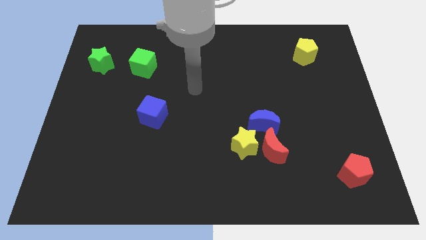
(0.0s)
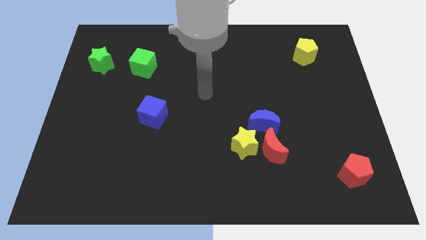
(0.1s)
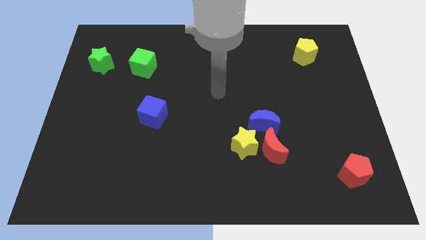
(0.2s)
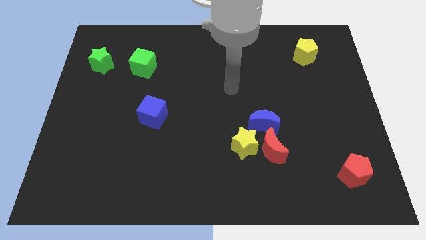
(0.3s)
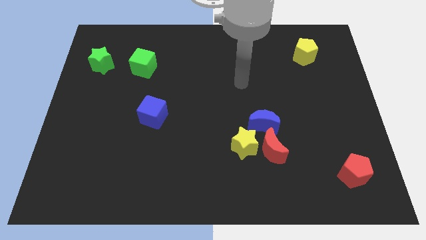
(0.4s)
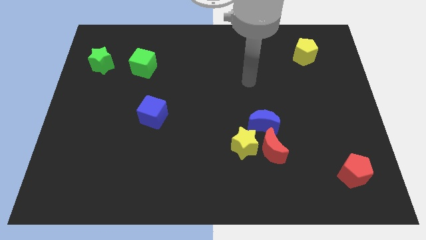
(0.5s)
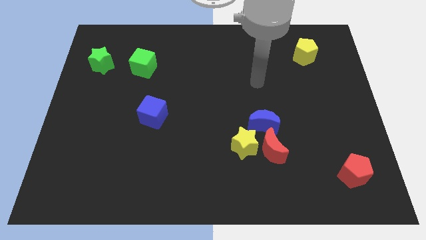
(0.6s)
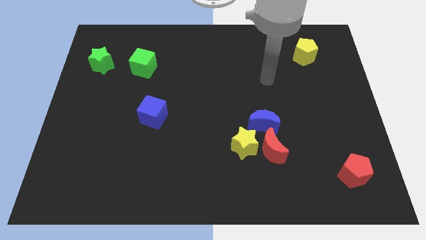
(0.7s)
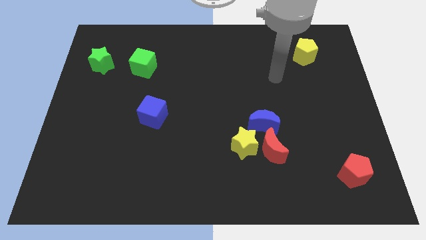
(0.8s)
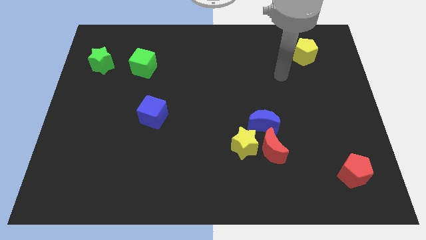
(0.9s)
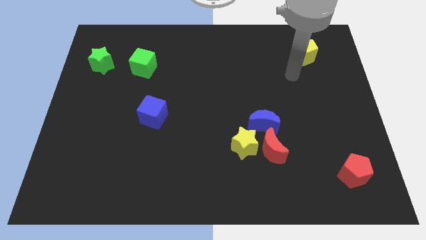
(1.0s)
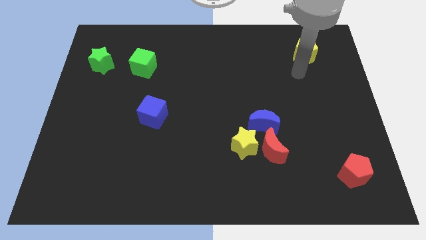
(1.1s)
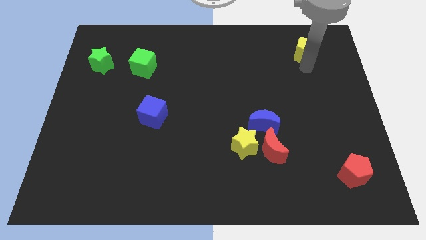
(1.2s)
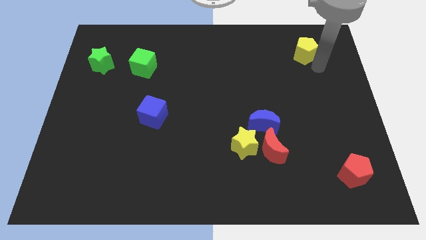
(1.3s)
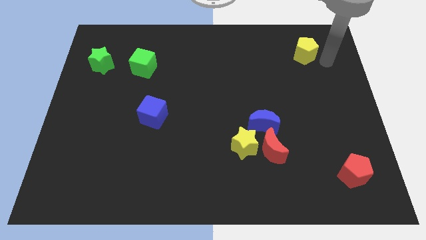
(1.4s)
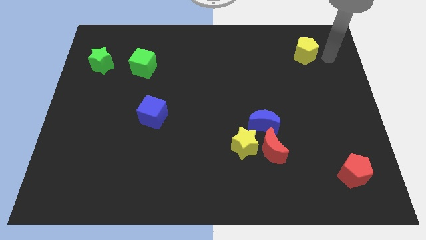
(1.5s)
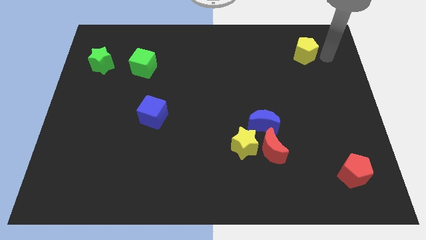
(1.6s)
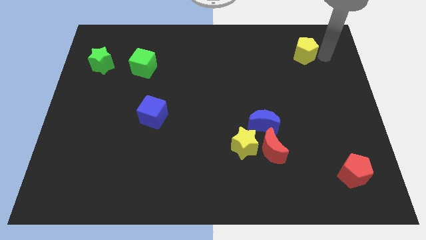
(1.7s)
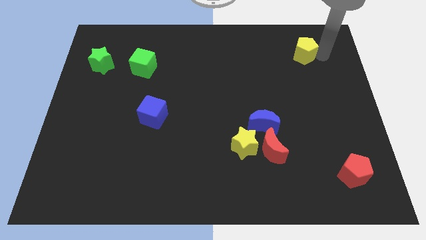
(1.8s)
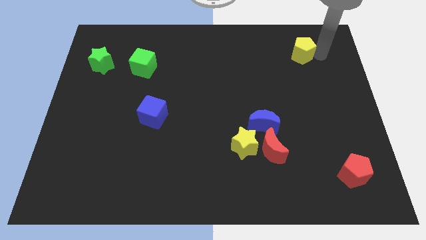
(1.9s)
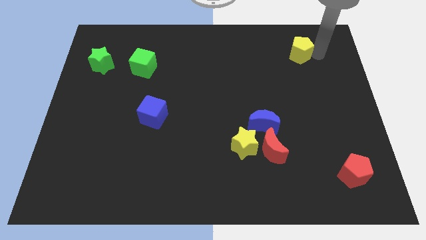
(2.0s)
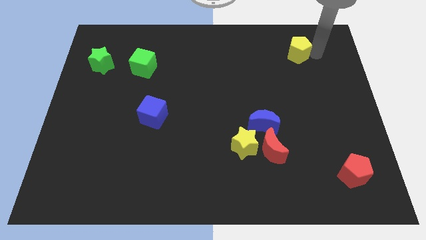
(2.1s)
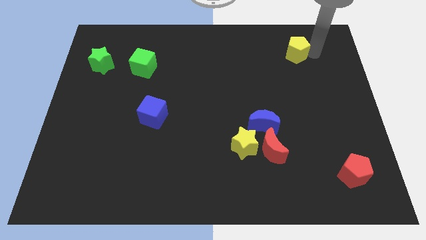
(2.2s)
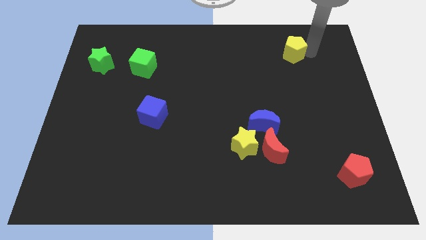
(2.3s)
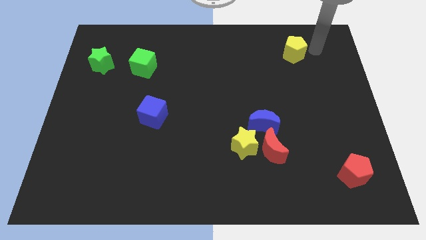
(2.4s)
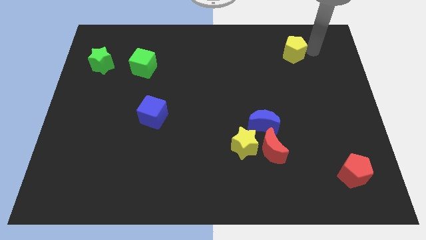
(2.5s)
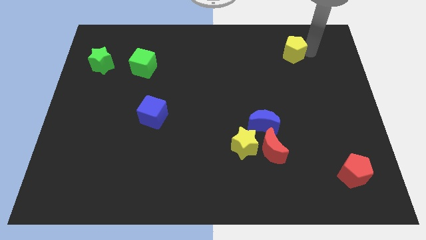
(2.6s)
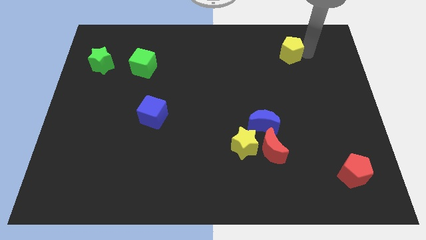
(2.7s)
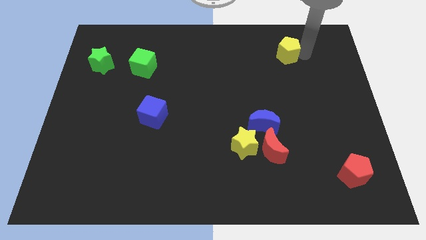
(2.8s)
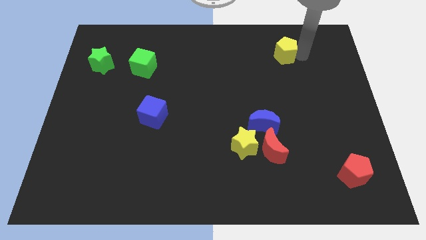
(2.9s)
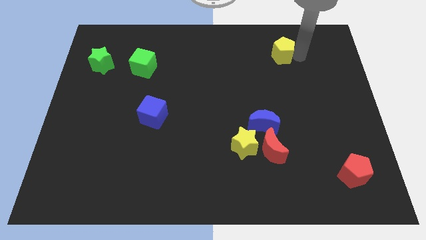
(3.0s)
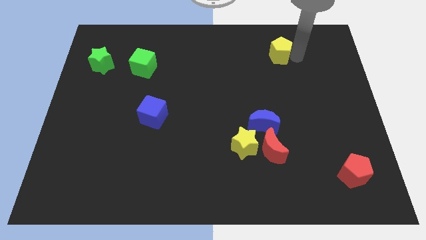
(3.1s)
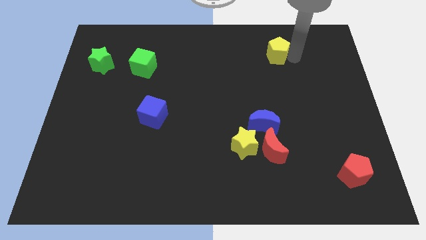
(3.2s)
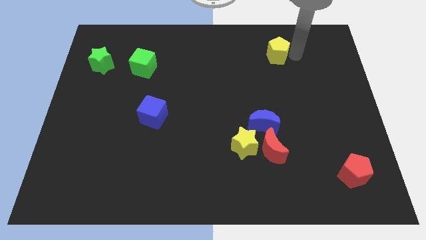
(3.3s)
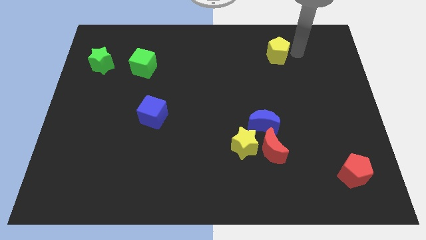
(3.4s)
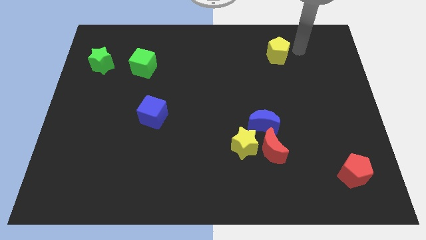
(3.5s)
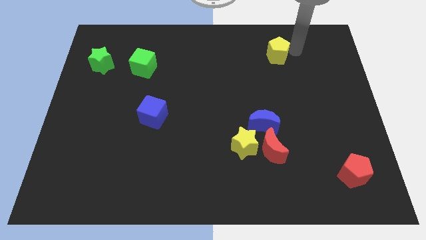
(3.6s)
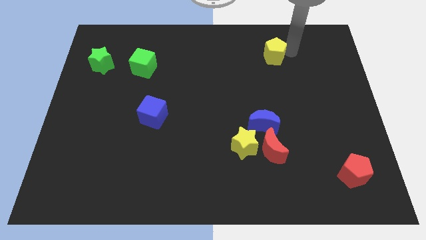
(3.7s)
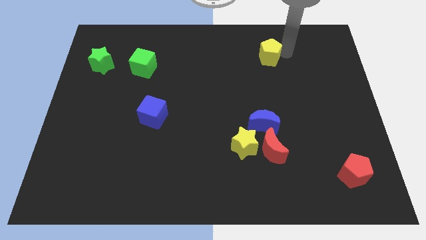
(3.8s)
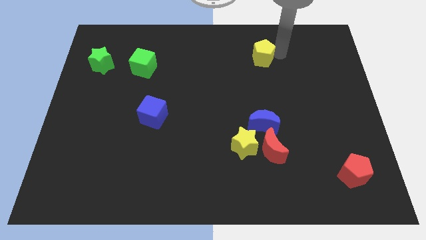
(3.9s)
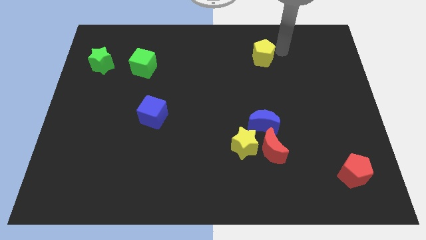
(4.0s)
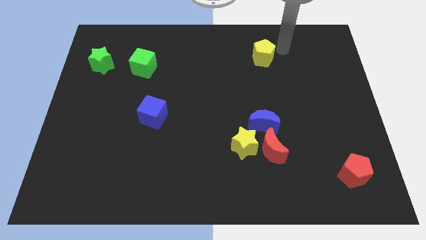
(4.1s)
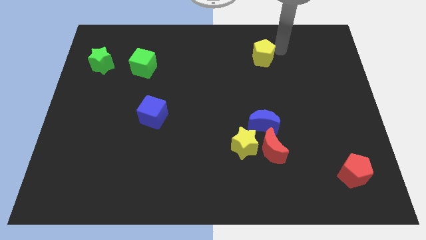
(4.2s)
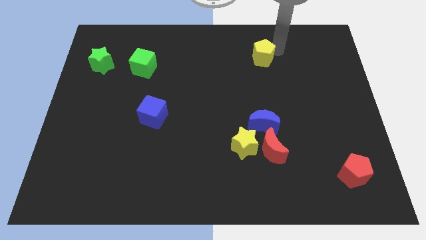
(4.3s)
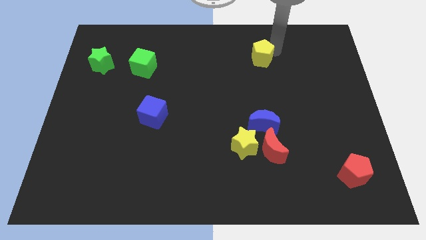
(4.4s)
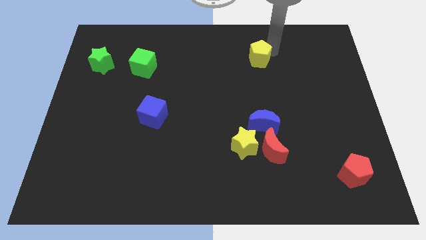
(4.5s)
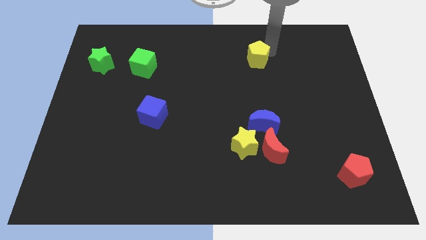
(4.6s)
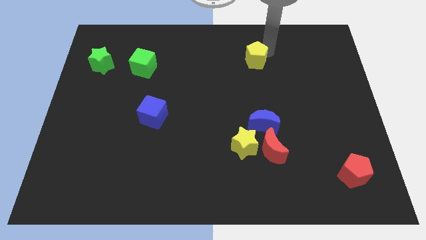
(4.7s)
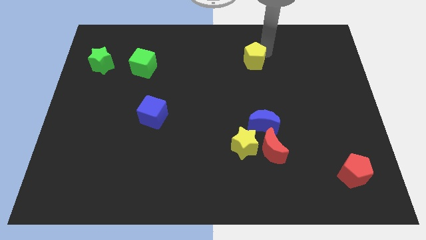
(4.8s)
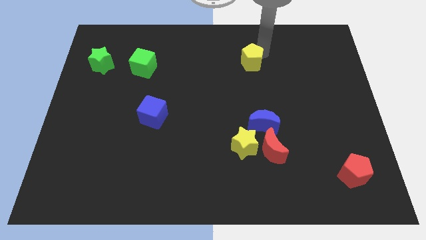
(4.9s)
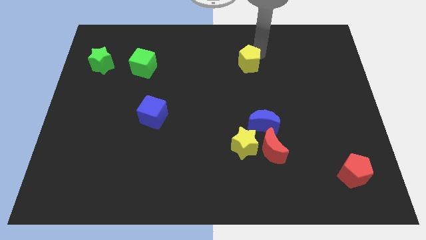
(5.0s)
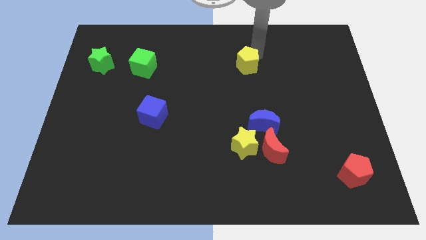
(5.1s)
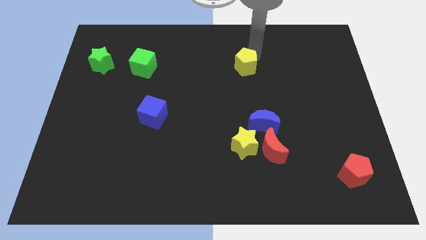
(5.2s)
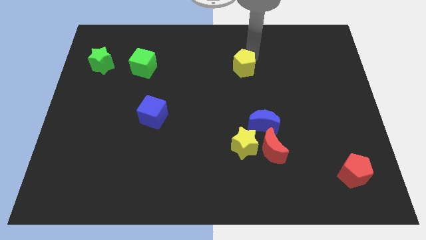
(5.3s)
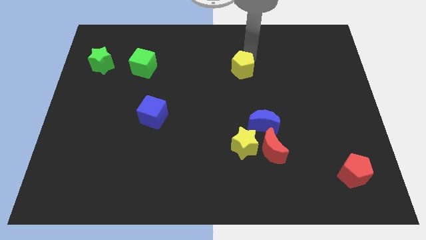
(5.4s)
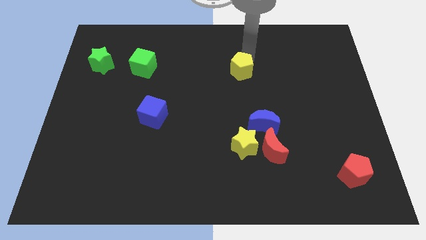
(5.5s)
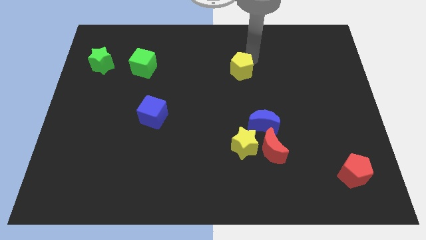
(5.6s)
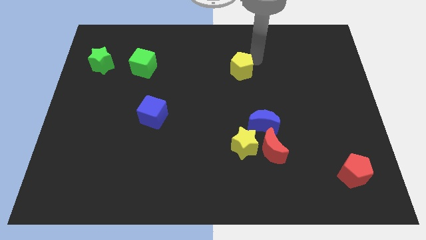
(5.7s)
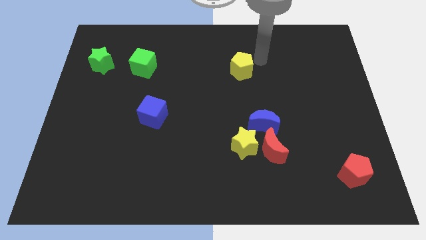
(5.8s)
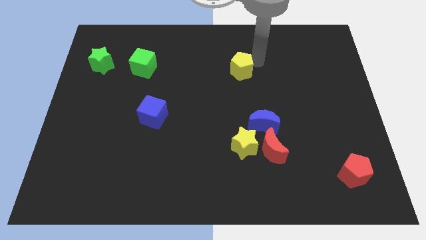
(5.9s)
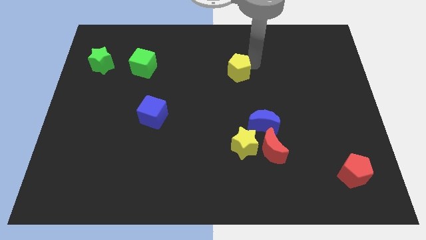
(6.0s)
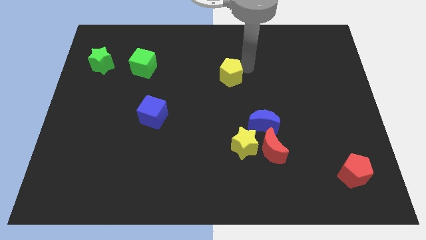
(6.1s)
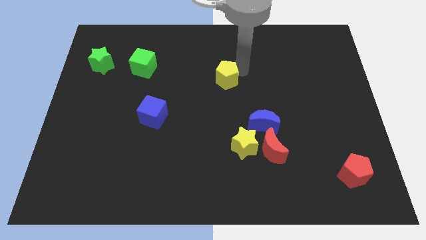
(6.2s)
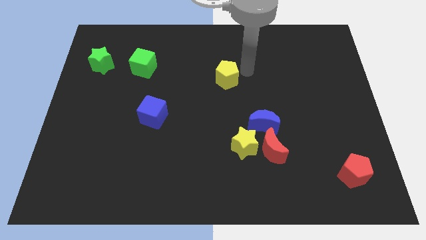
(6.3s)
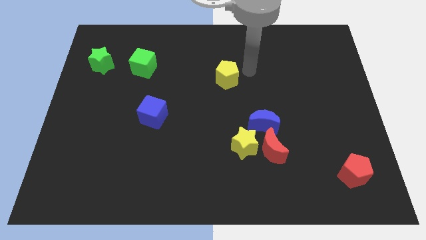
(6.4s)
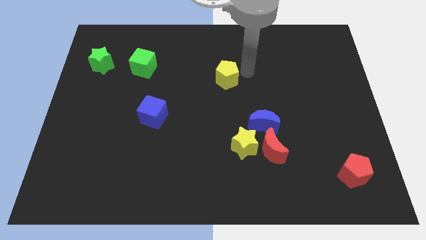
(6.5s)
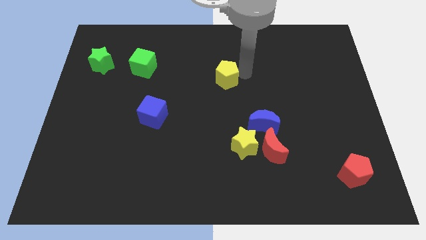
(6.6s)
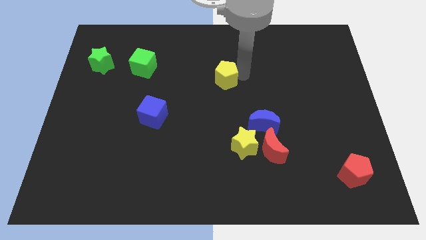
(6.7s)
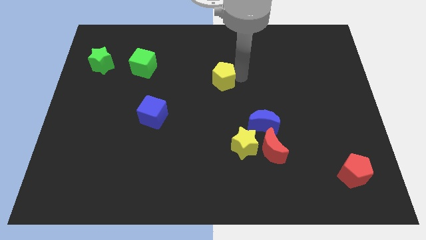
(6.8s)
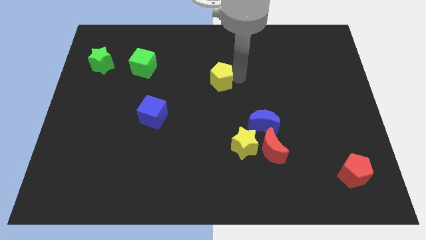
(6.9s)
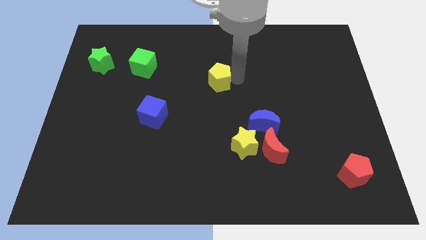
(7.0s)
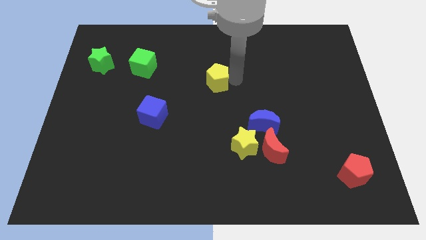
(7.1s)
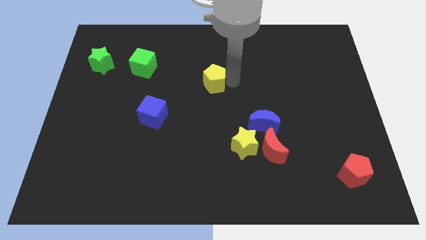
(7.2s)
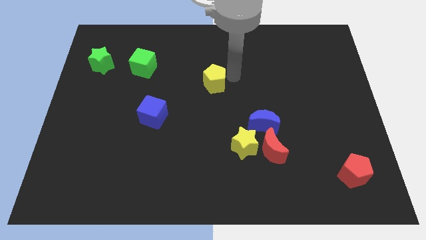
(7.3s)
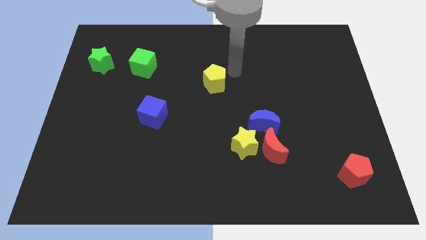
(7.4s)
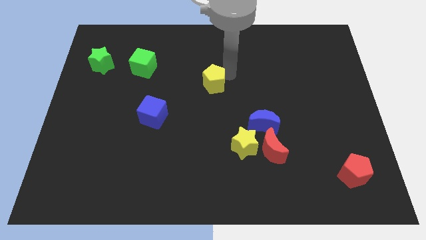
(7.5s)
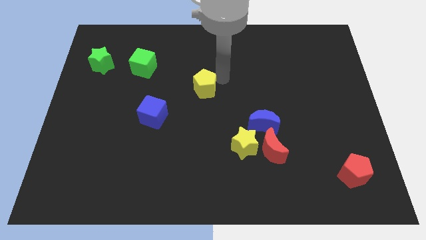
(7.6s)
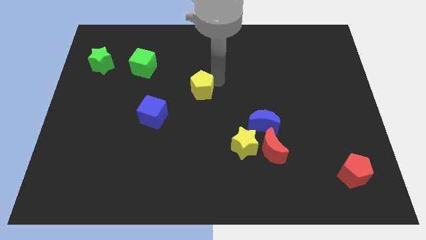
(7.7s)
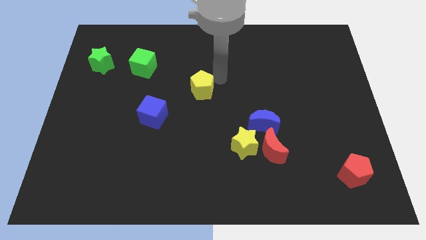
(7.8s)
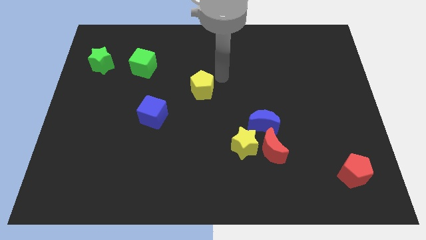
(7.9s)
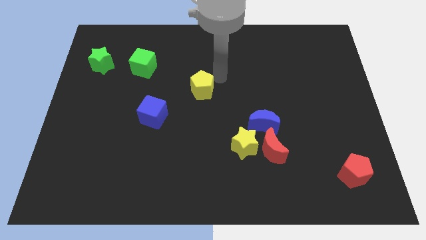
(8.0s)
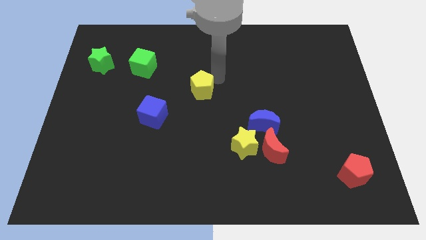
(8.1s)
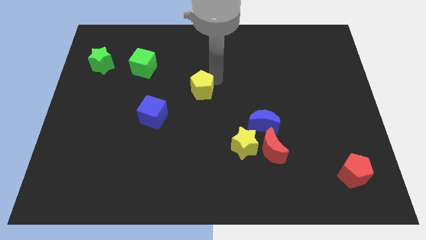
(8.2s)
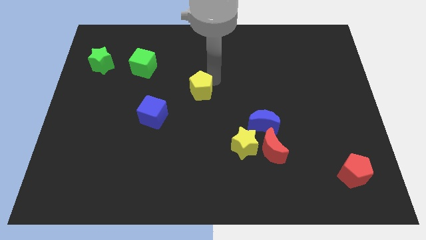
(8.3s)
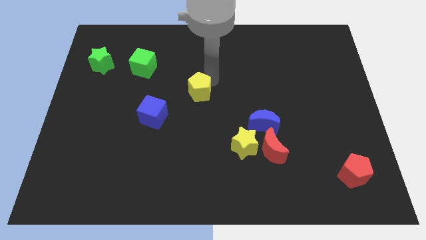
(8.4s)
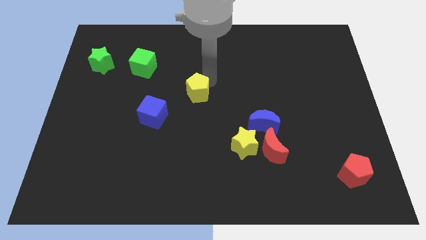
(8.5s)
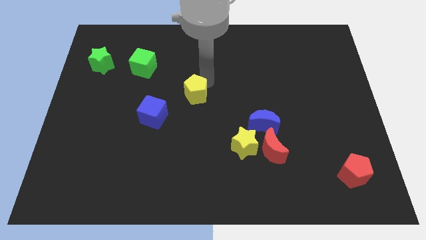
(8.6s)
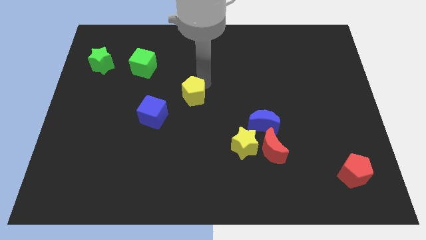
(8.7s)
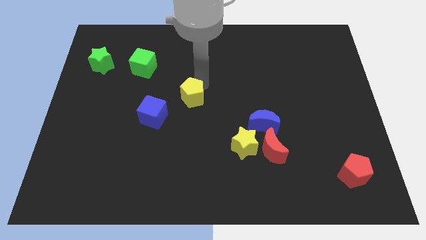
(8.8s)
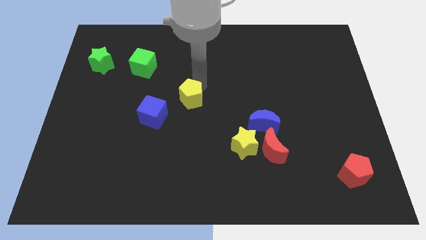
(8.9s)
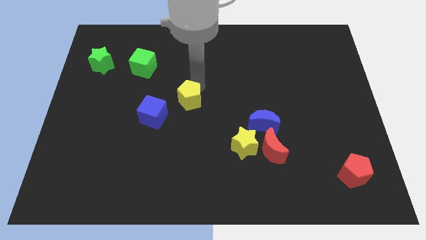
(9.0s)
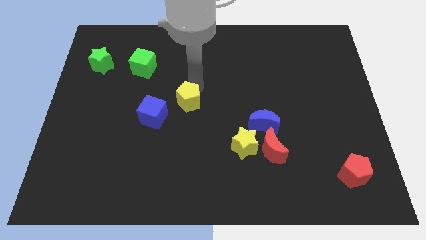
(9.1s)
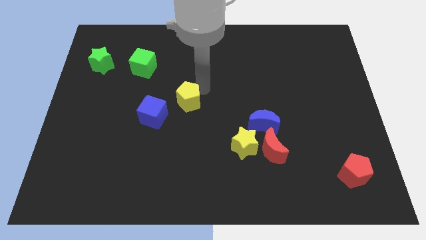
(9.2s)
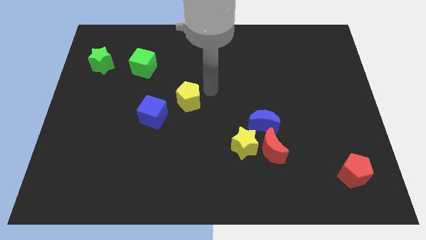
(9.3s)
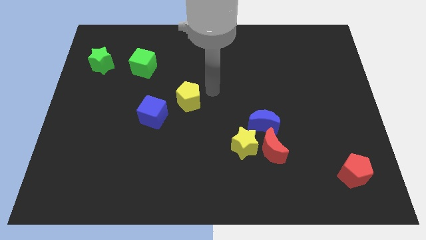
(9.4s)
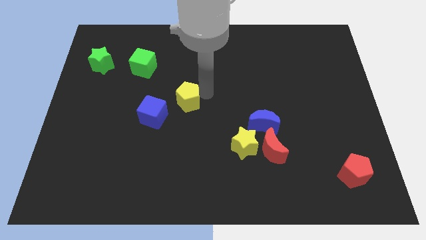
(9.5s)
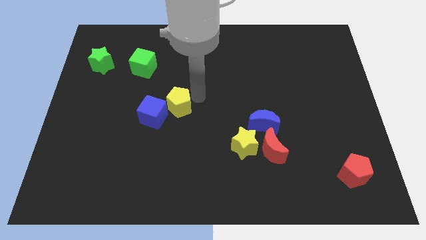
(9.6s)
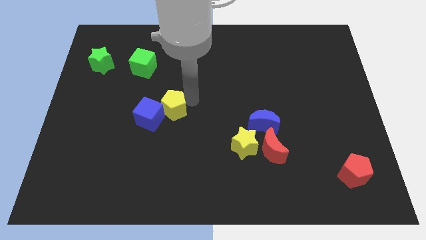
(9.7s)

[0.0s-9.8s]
move the yellow pentagon close to the blue cube
